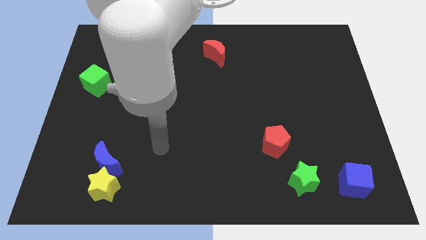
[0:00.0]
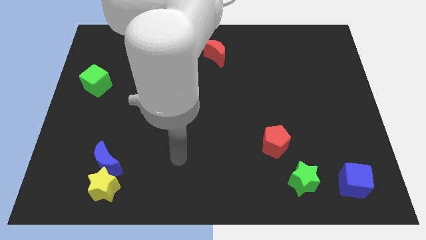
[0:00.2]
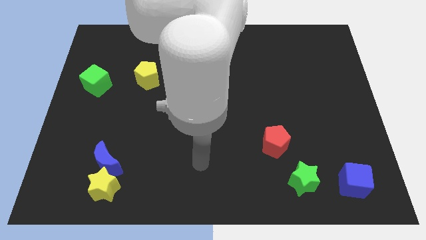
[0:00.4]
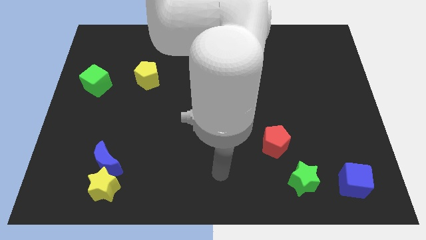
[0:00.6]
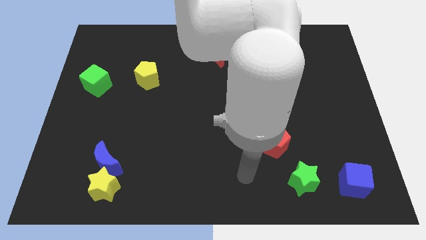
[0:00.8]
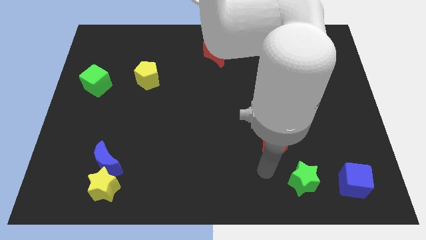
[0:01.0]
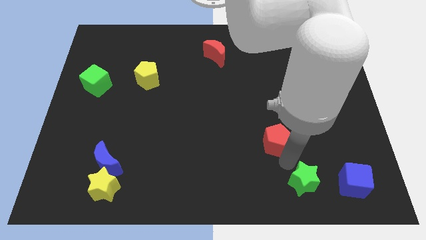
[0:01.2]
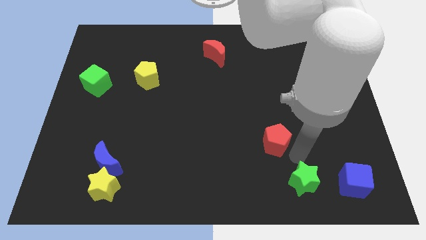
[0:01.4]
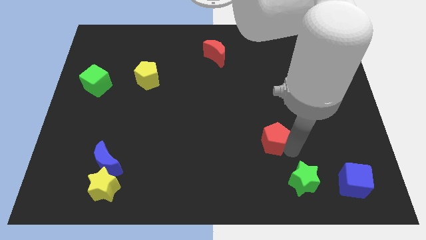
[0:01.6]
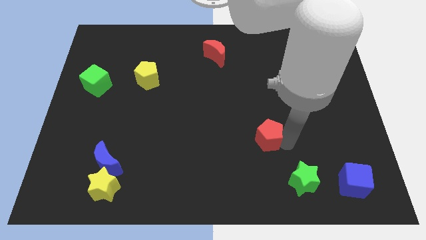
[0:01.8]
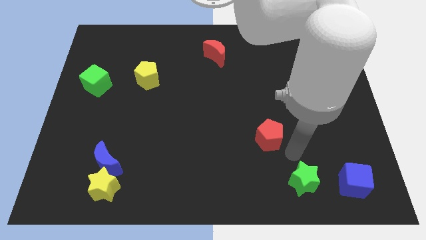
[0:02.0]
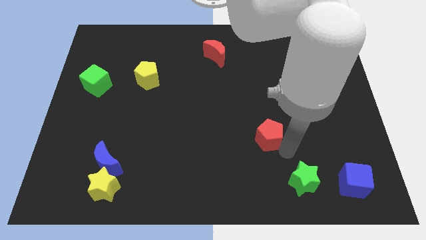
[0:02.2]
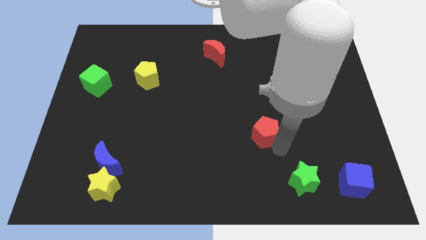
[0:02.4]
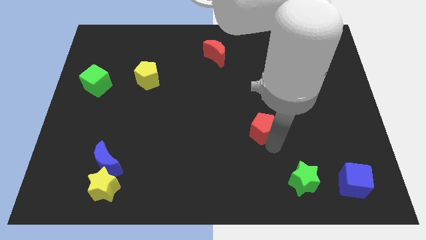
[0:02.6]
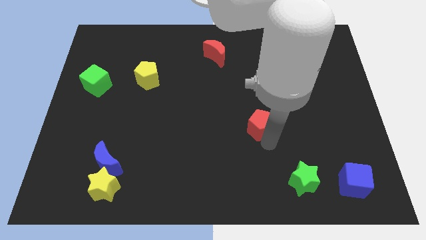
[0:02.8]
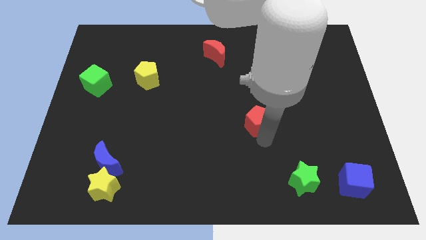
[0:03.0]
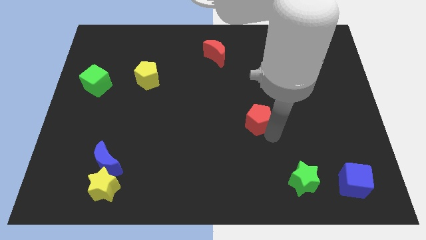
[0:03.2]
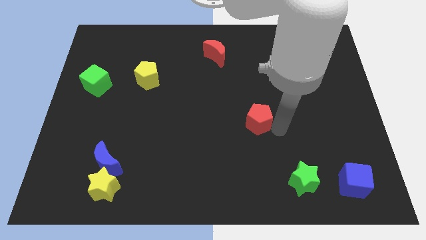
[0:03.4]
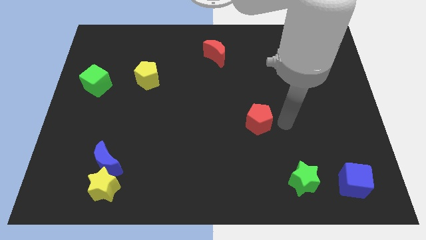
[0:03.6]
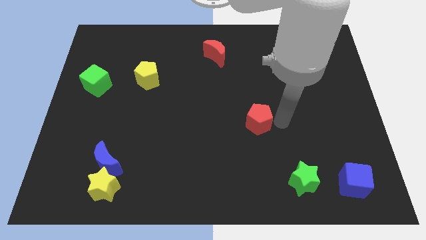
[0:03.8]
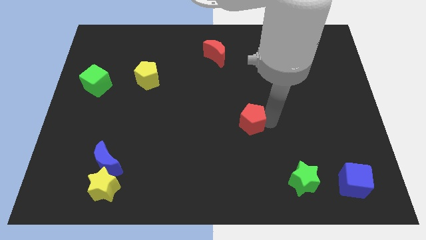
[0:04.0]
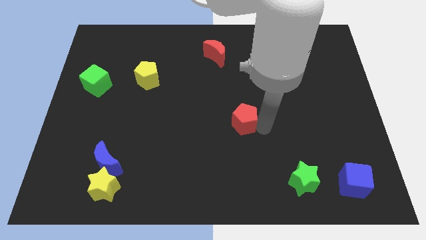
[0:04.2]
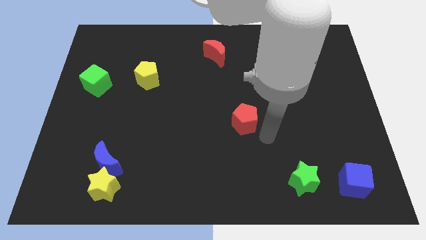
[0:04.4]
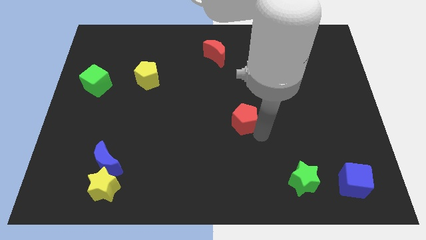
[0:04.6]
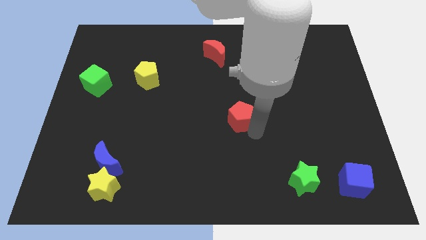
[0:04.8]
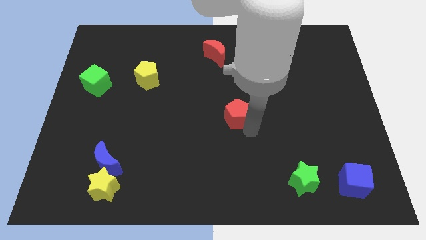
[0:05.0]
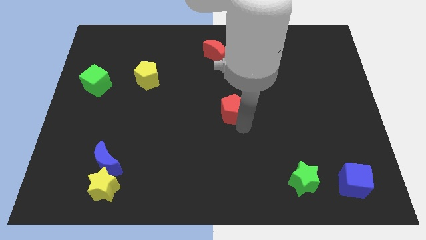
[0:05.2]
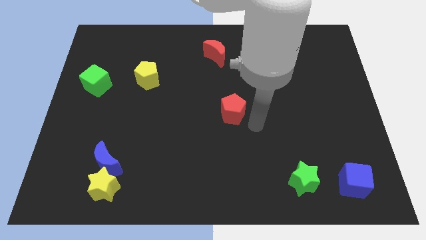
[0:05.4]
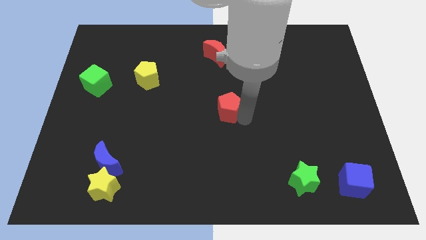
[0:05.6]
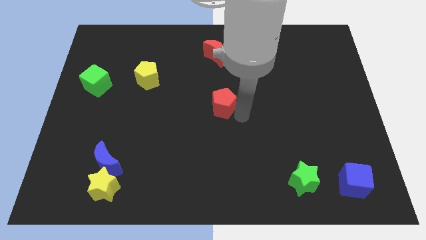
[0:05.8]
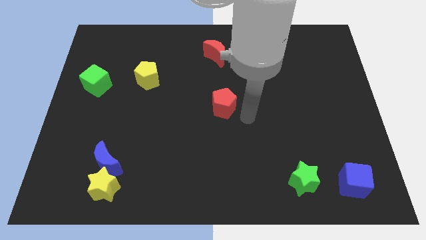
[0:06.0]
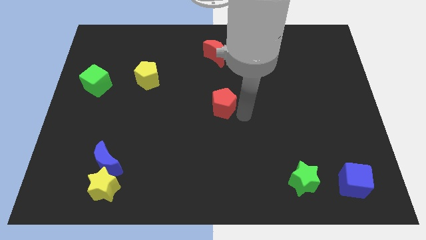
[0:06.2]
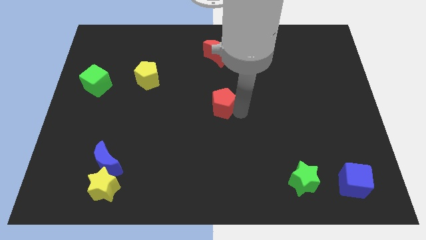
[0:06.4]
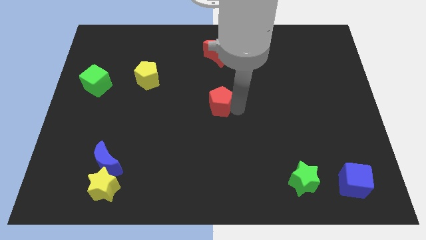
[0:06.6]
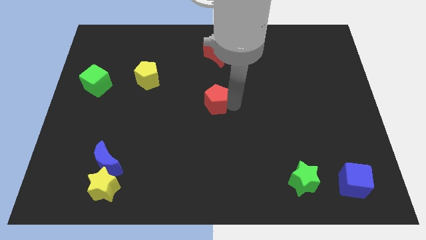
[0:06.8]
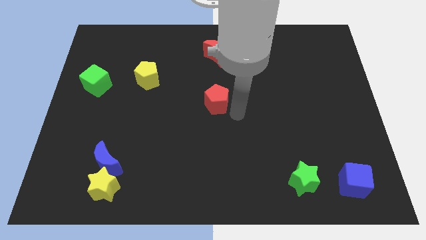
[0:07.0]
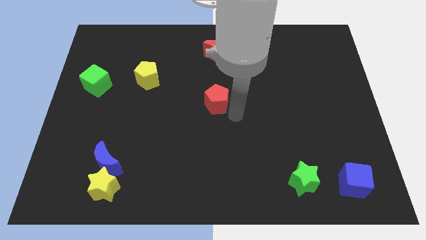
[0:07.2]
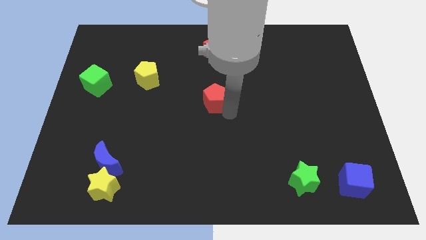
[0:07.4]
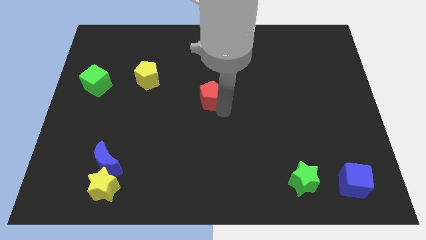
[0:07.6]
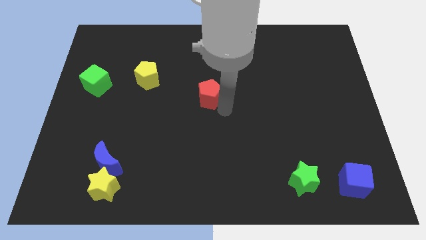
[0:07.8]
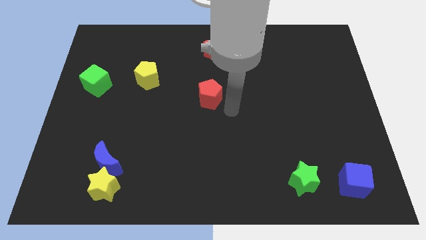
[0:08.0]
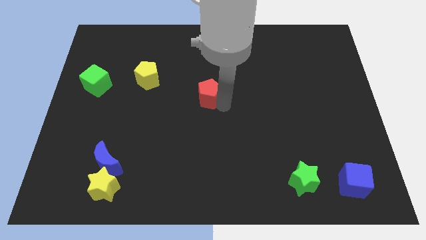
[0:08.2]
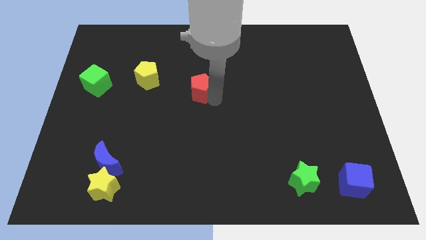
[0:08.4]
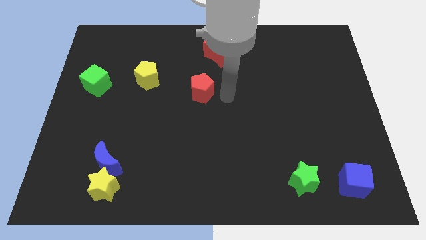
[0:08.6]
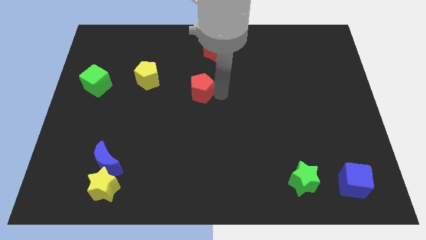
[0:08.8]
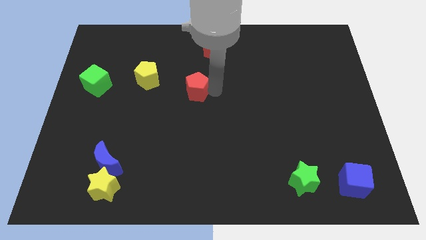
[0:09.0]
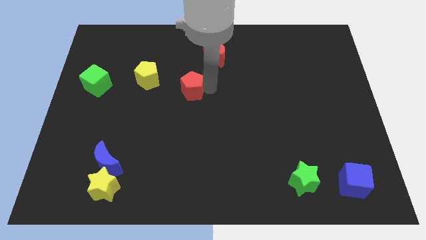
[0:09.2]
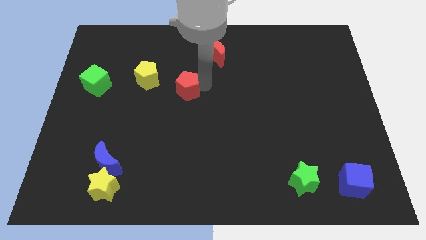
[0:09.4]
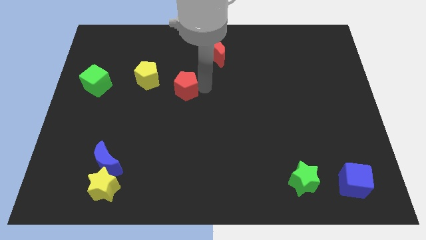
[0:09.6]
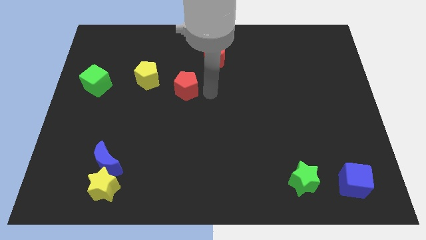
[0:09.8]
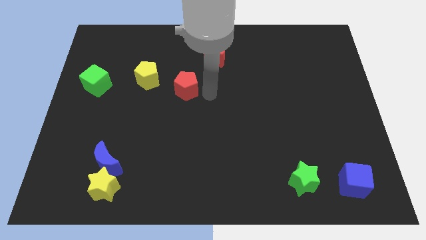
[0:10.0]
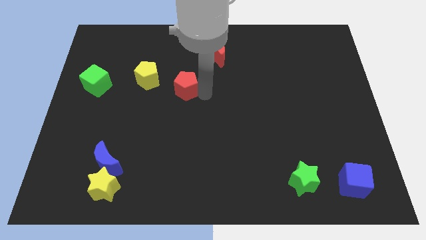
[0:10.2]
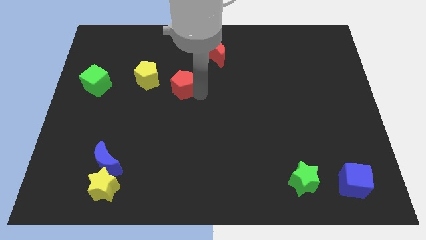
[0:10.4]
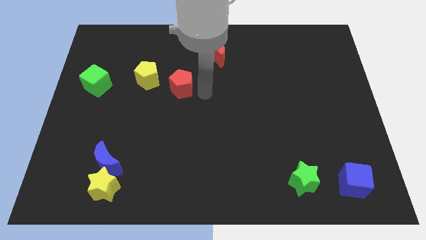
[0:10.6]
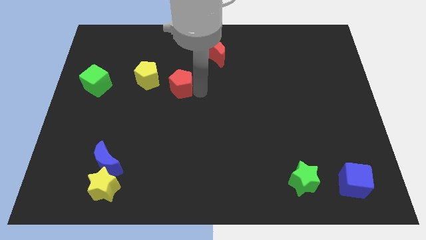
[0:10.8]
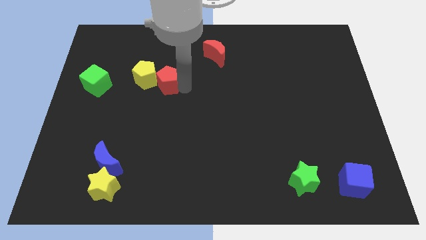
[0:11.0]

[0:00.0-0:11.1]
move the red pentagon next to the yellow pentagon

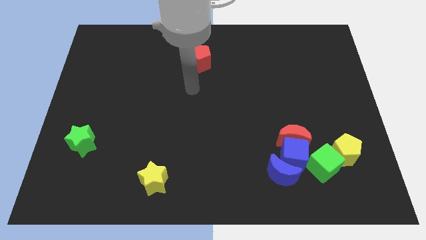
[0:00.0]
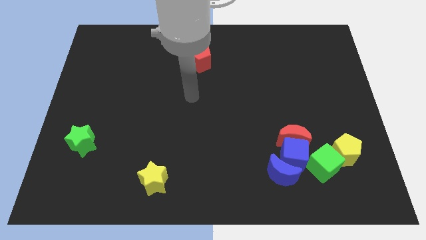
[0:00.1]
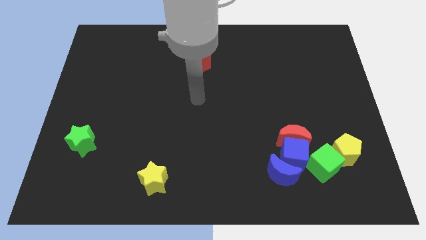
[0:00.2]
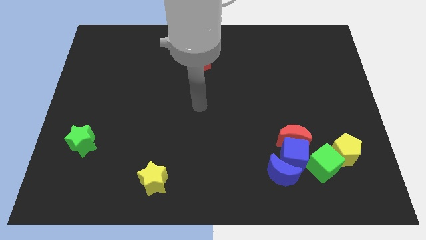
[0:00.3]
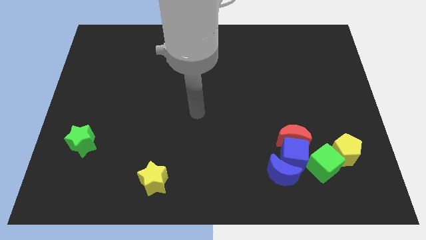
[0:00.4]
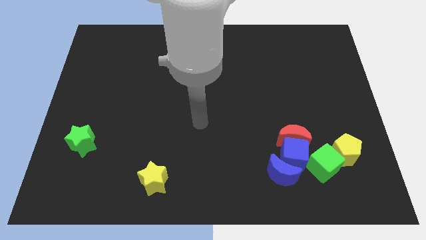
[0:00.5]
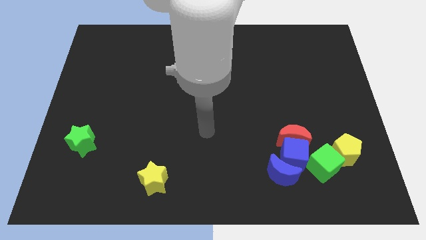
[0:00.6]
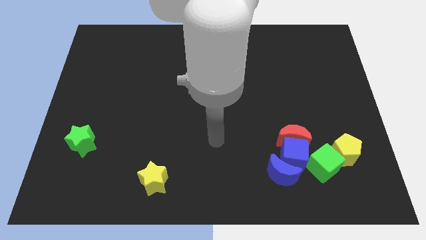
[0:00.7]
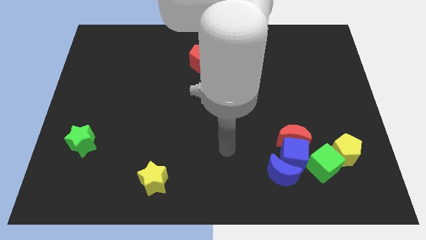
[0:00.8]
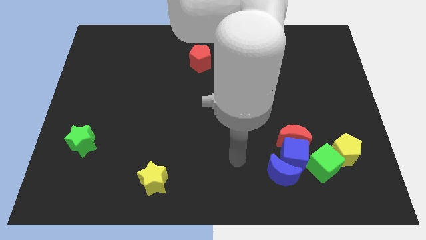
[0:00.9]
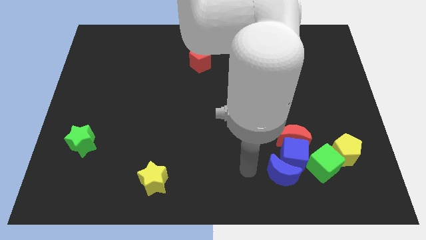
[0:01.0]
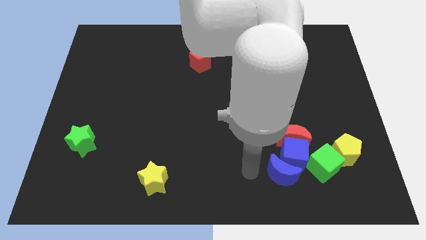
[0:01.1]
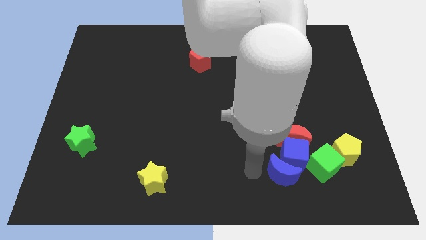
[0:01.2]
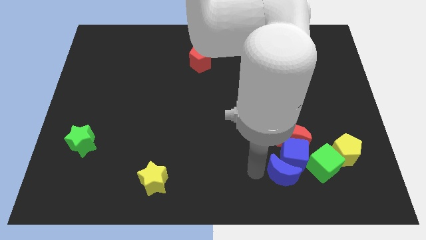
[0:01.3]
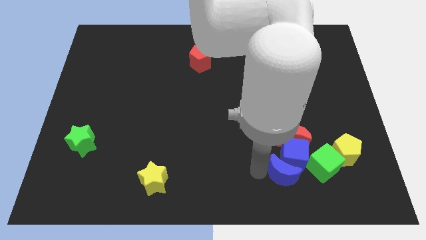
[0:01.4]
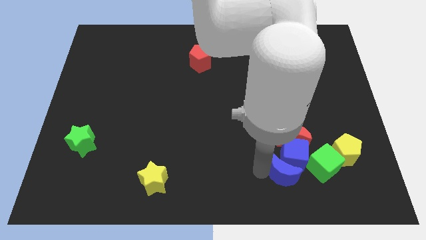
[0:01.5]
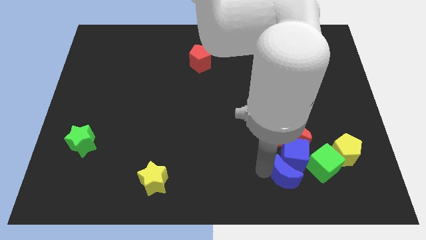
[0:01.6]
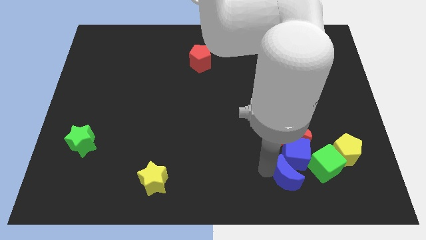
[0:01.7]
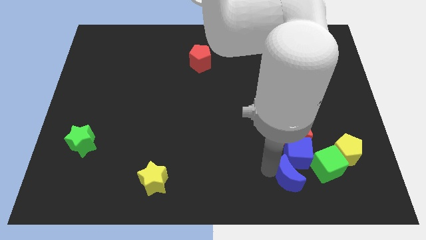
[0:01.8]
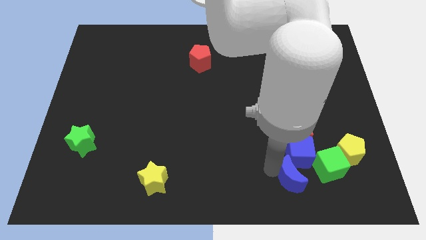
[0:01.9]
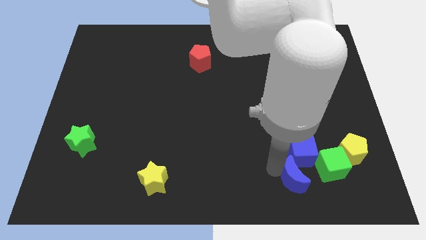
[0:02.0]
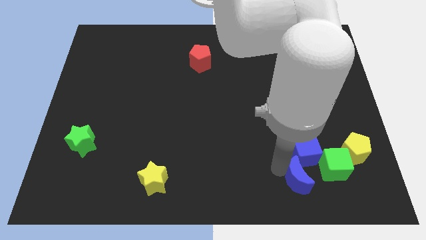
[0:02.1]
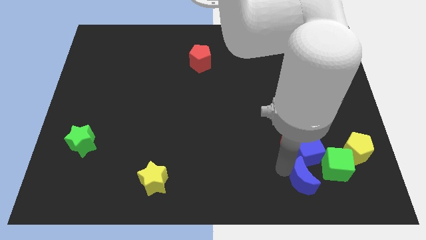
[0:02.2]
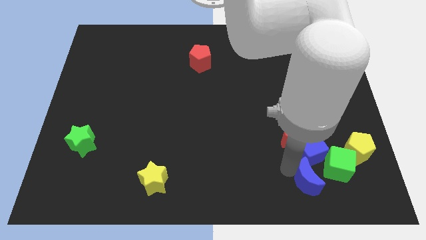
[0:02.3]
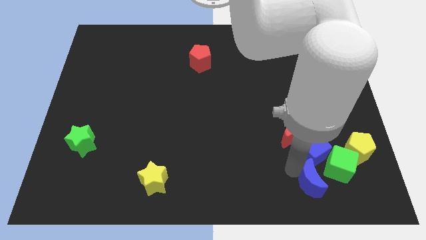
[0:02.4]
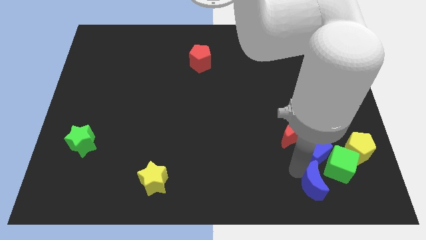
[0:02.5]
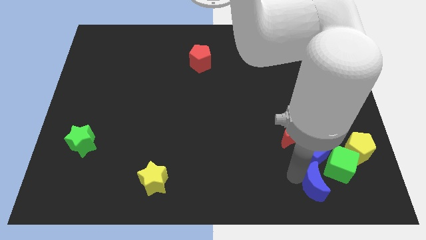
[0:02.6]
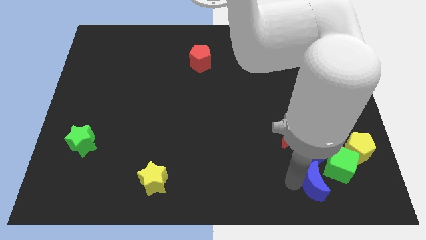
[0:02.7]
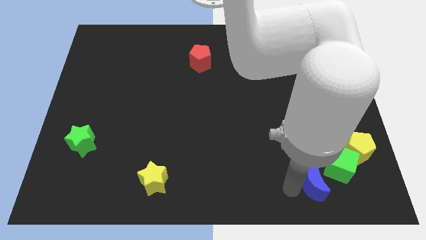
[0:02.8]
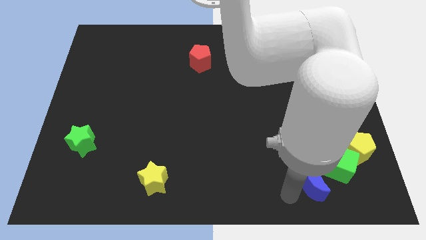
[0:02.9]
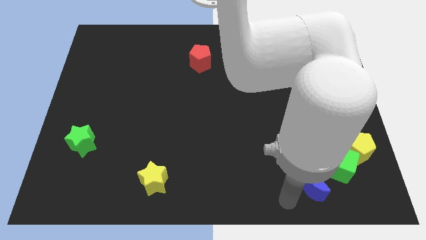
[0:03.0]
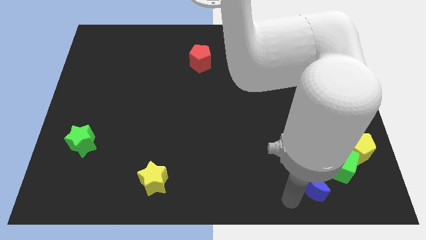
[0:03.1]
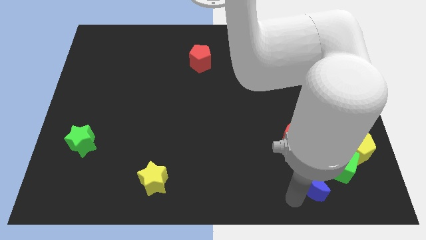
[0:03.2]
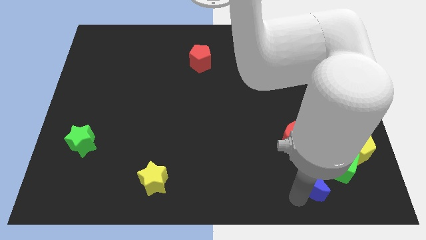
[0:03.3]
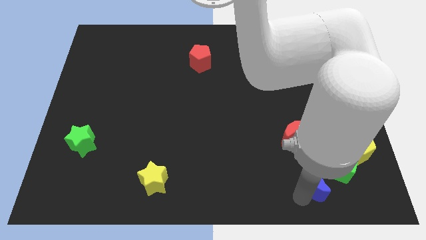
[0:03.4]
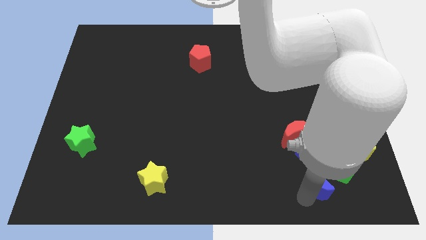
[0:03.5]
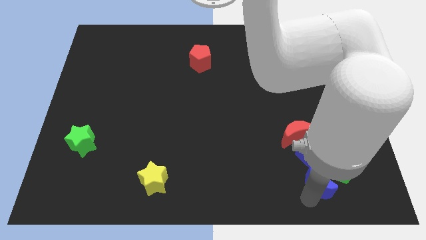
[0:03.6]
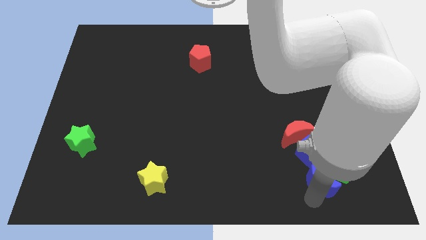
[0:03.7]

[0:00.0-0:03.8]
slide the blue moon close to the green cube
